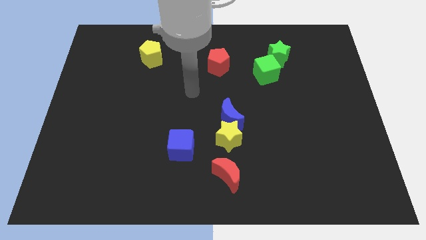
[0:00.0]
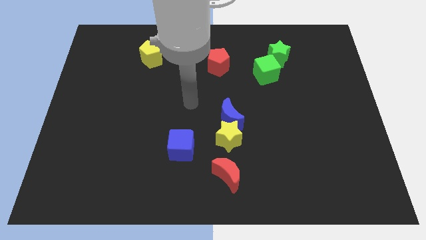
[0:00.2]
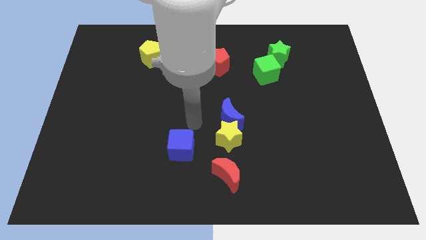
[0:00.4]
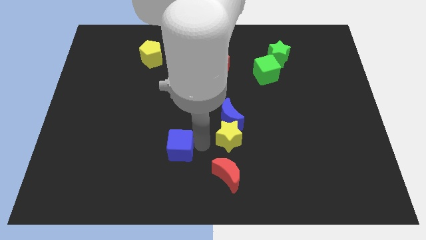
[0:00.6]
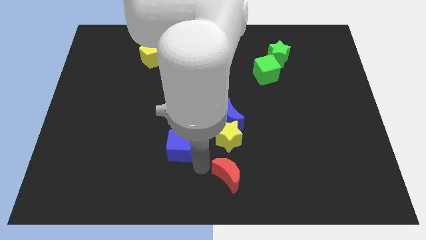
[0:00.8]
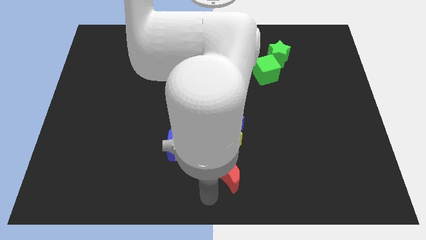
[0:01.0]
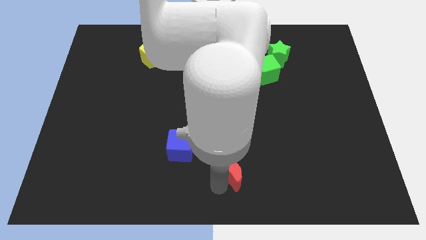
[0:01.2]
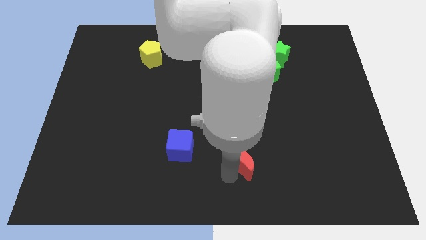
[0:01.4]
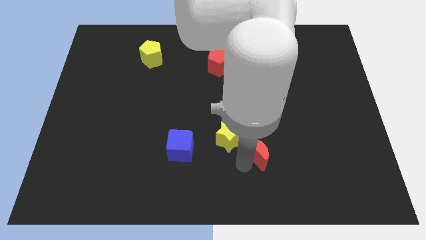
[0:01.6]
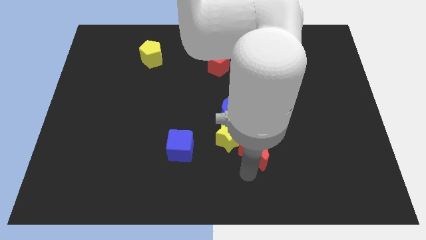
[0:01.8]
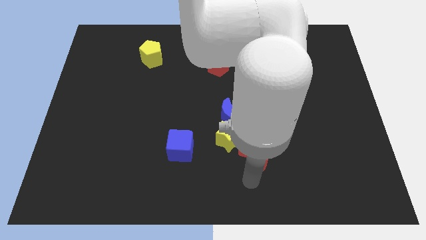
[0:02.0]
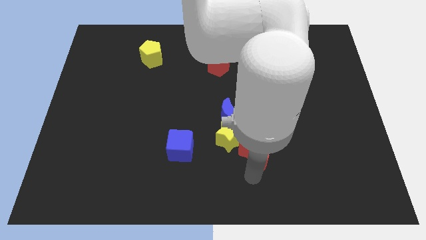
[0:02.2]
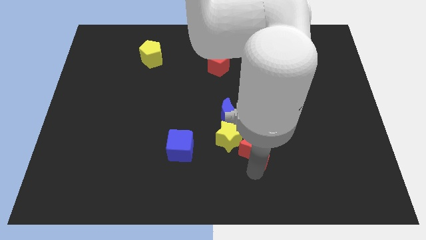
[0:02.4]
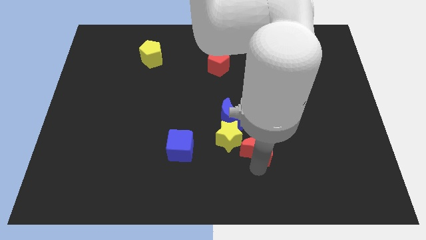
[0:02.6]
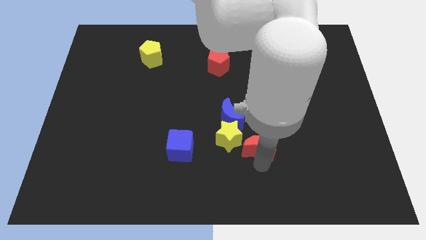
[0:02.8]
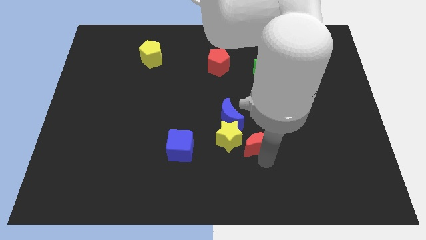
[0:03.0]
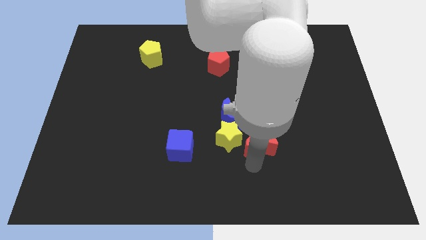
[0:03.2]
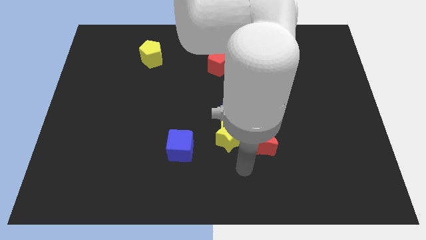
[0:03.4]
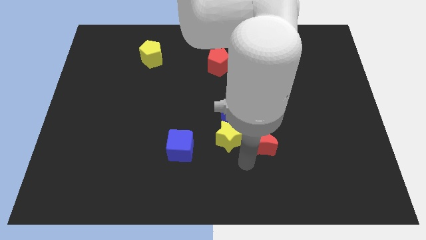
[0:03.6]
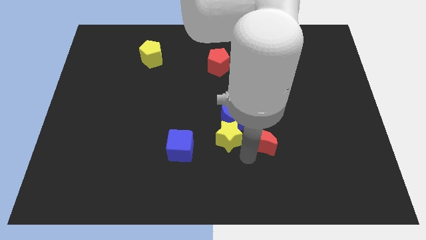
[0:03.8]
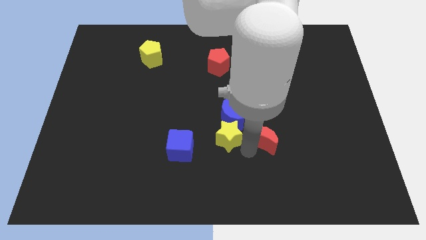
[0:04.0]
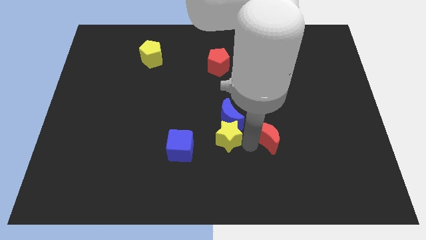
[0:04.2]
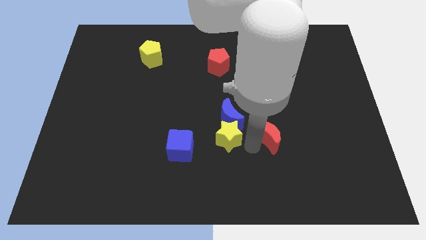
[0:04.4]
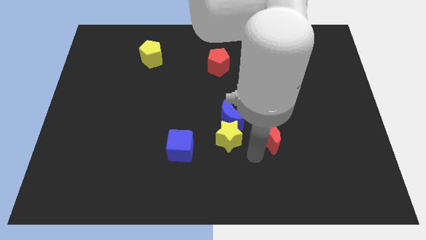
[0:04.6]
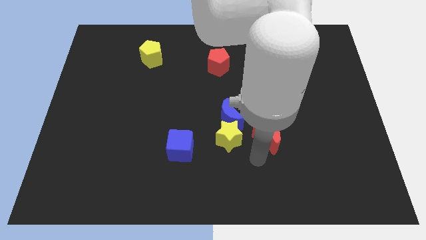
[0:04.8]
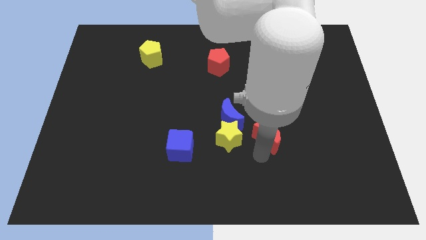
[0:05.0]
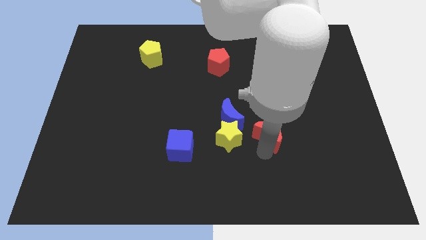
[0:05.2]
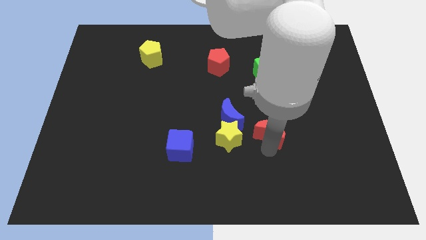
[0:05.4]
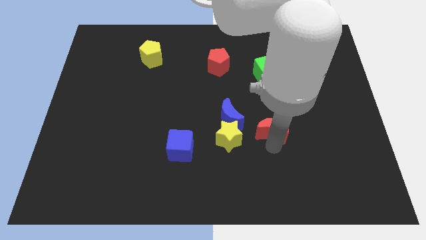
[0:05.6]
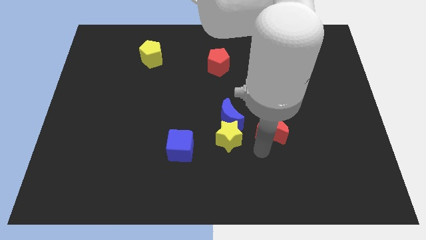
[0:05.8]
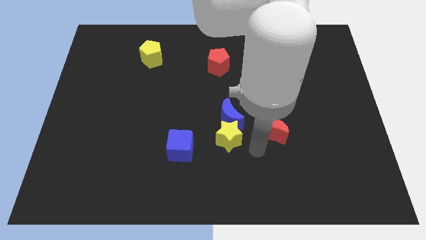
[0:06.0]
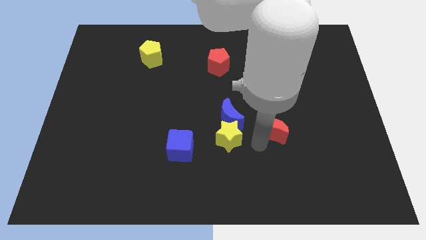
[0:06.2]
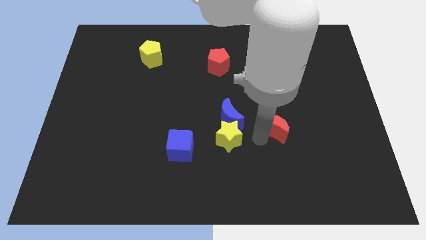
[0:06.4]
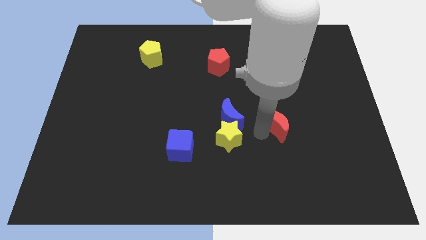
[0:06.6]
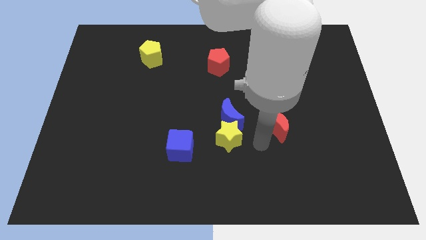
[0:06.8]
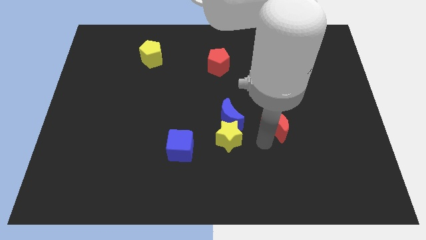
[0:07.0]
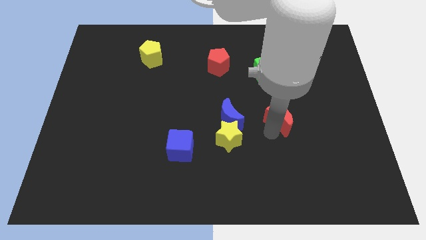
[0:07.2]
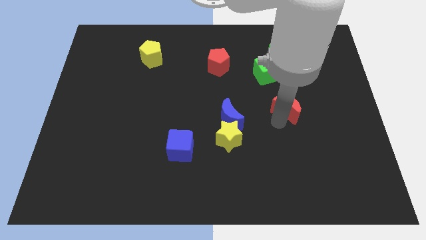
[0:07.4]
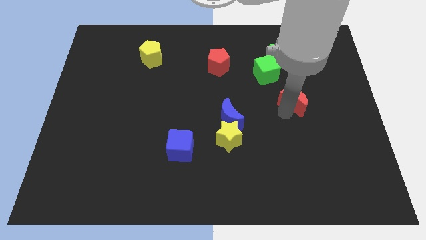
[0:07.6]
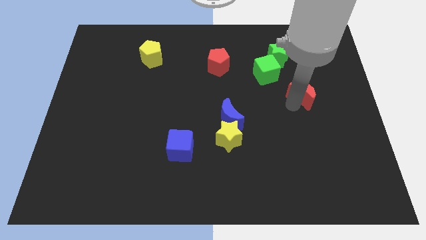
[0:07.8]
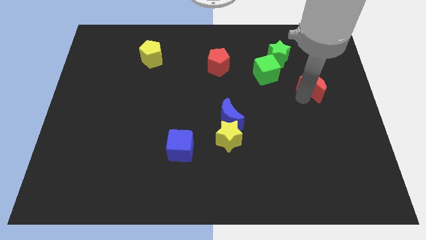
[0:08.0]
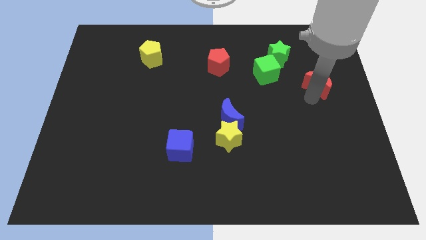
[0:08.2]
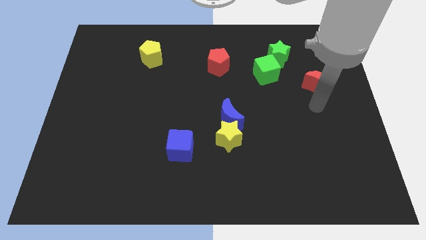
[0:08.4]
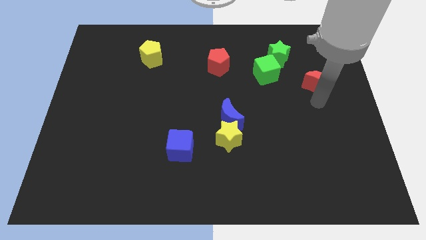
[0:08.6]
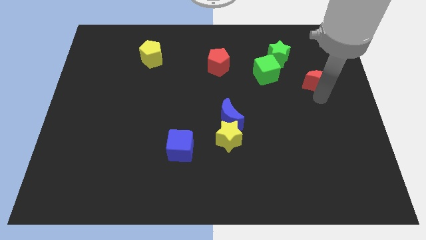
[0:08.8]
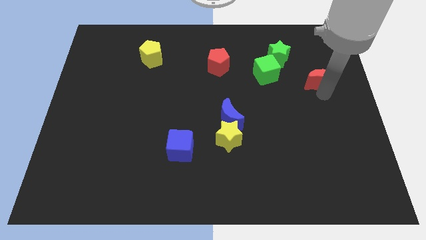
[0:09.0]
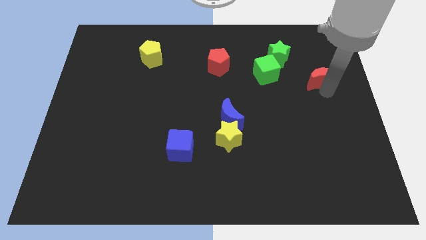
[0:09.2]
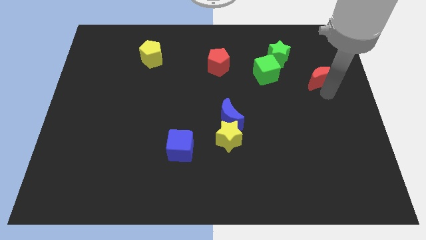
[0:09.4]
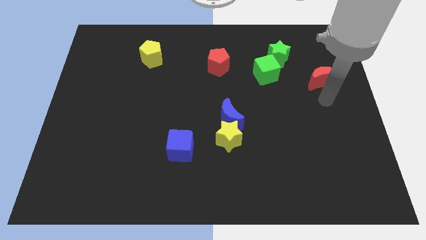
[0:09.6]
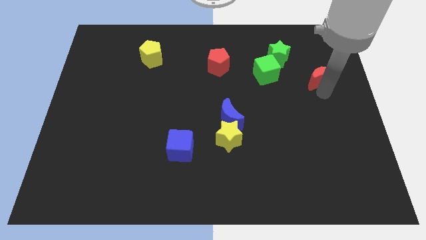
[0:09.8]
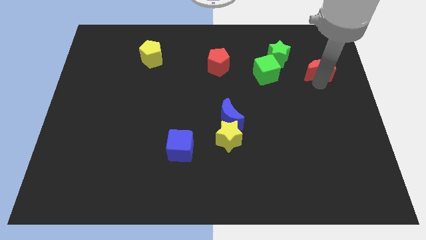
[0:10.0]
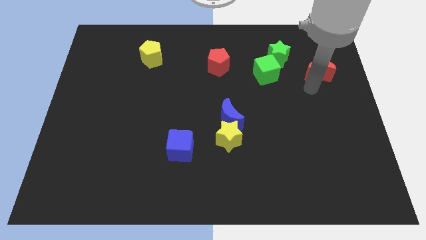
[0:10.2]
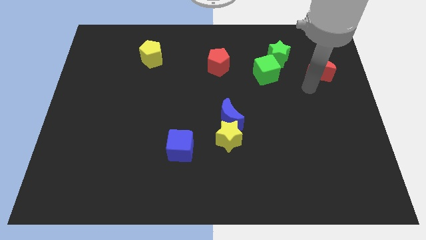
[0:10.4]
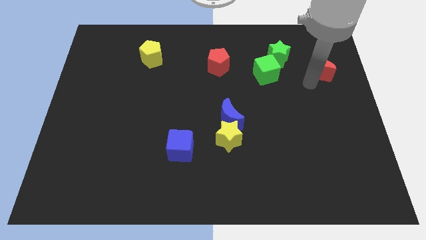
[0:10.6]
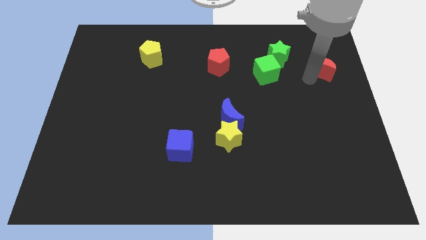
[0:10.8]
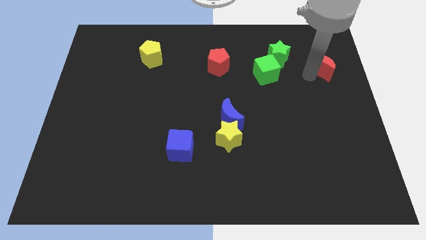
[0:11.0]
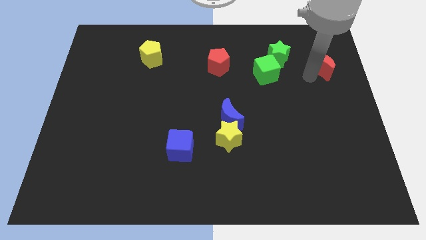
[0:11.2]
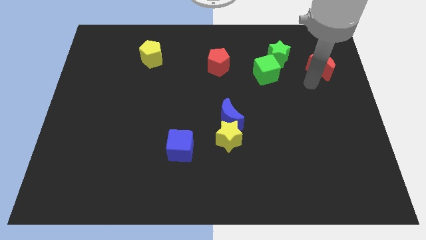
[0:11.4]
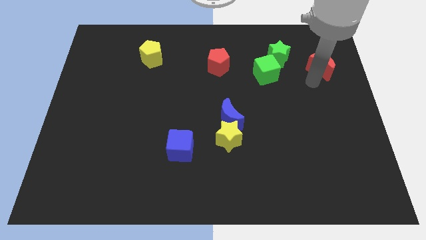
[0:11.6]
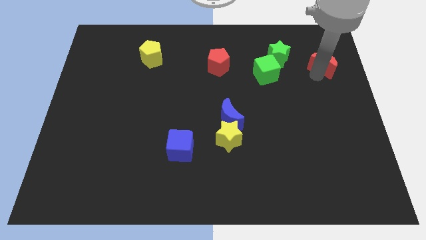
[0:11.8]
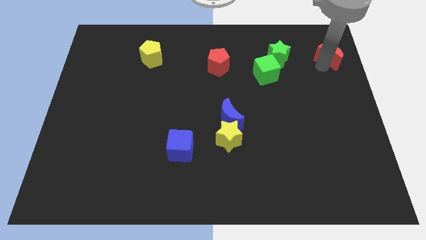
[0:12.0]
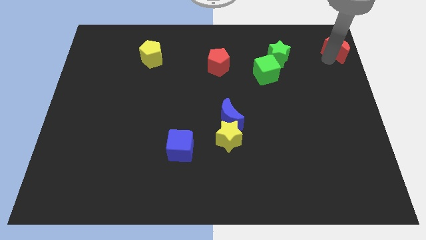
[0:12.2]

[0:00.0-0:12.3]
push the red moon to the top right corner

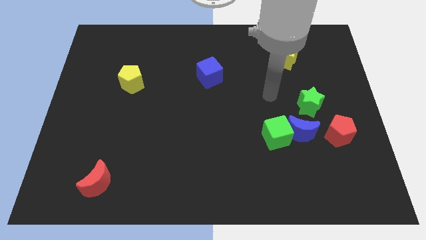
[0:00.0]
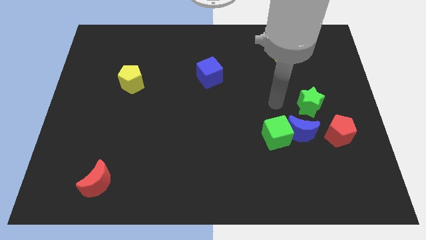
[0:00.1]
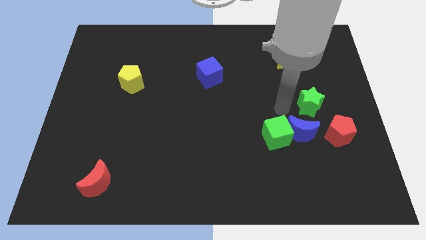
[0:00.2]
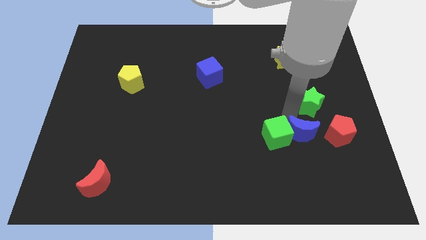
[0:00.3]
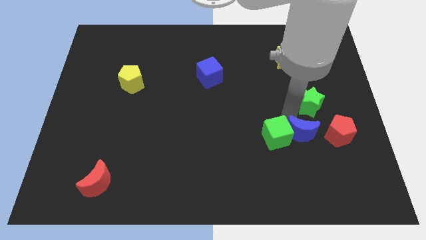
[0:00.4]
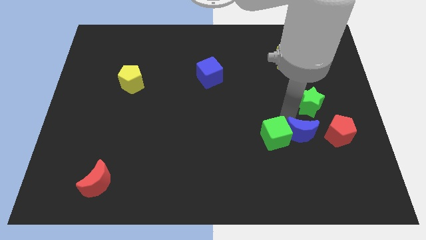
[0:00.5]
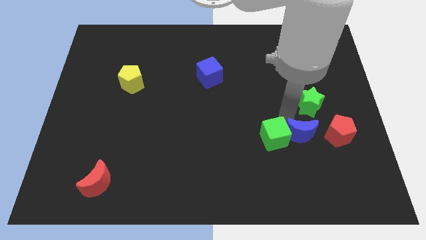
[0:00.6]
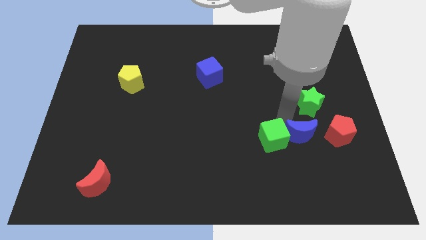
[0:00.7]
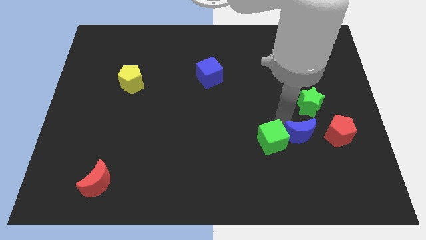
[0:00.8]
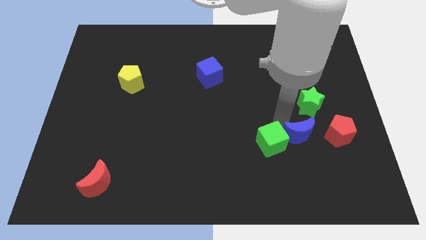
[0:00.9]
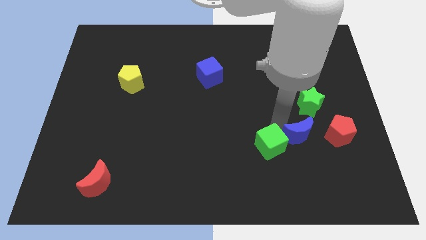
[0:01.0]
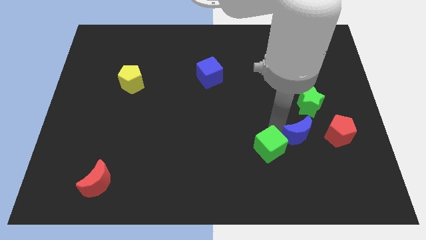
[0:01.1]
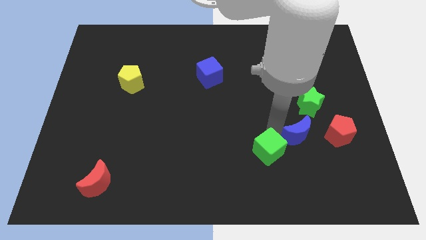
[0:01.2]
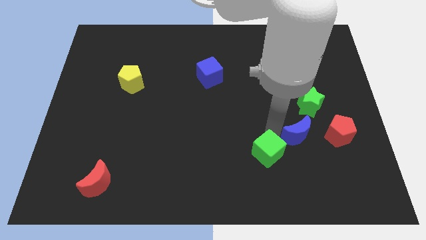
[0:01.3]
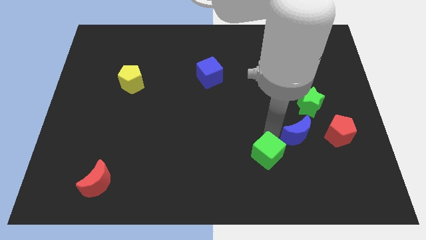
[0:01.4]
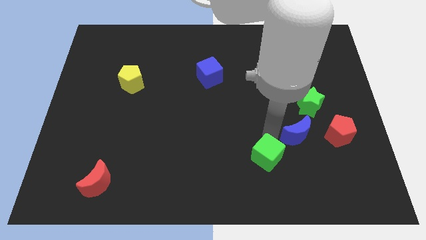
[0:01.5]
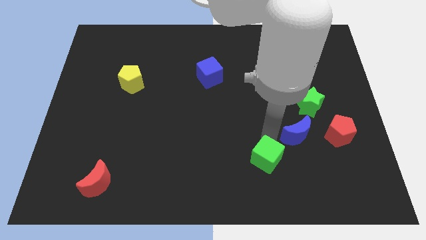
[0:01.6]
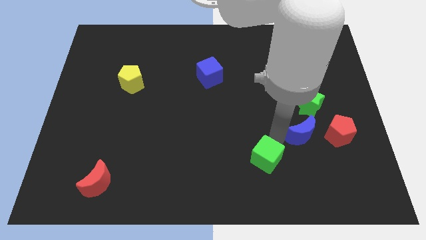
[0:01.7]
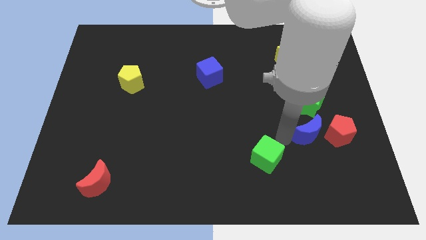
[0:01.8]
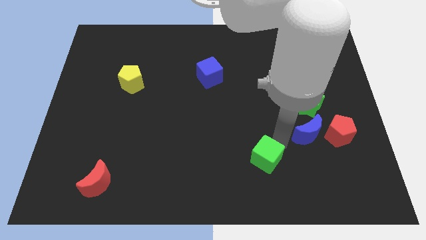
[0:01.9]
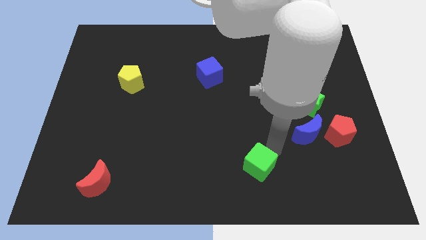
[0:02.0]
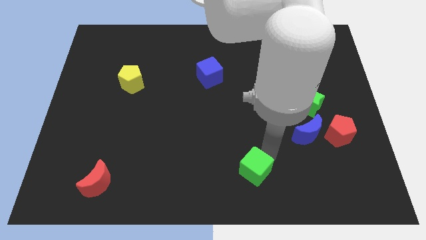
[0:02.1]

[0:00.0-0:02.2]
move the green cube to the bottom
